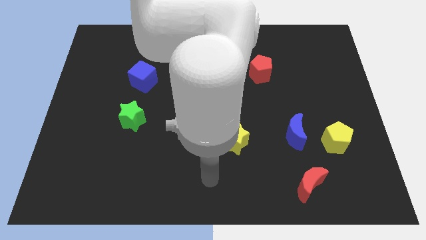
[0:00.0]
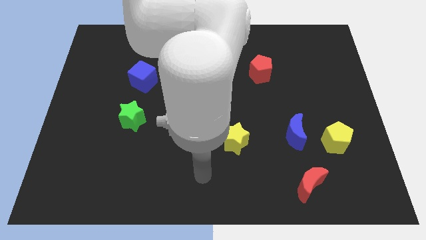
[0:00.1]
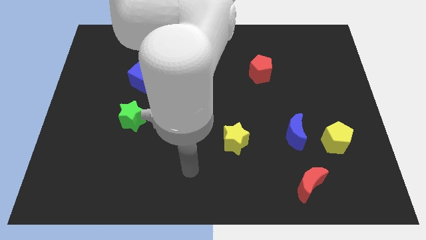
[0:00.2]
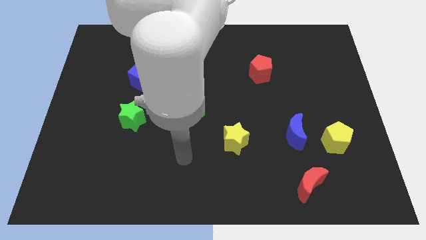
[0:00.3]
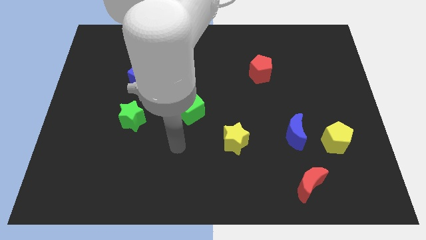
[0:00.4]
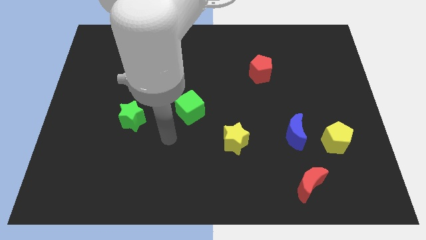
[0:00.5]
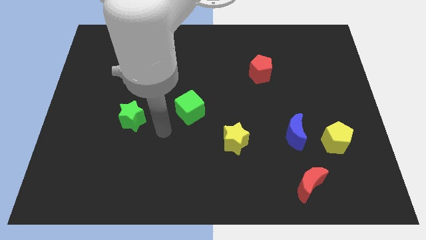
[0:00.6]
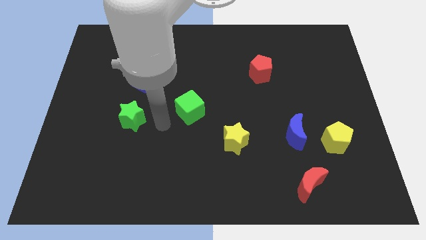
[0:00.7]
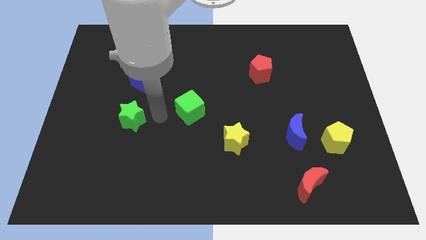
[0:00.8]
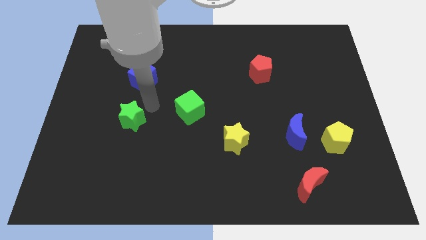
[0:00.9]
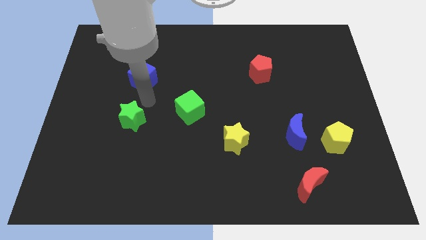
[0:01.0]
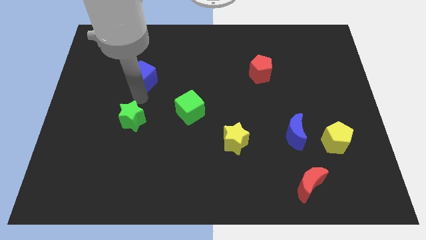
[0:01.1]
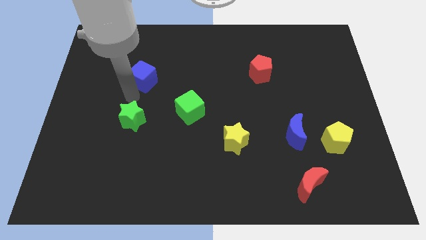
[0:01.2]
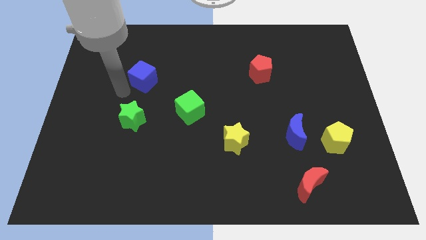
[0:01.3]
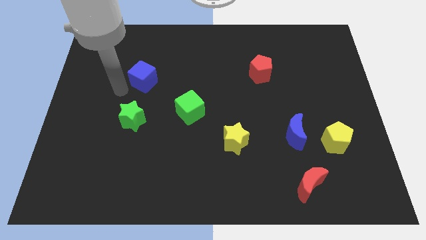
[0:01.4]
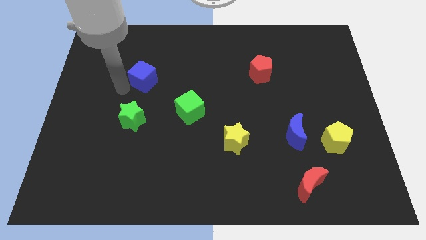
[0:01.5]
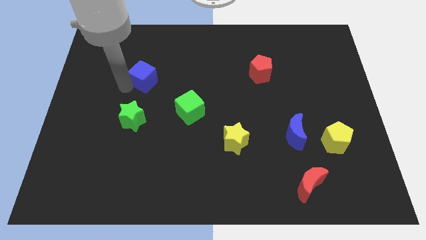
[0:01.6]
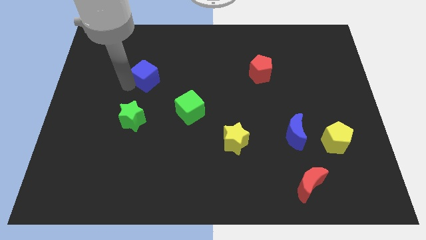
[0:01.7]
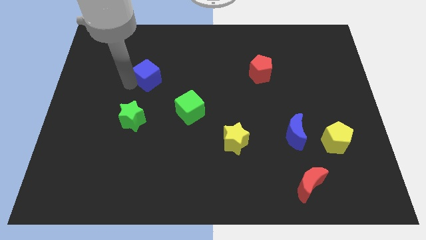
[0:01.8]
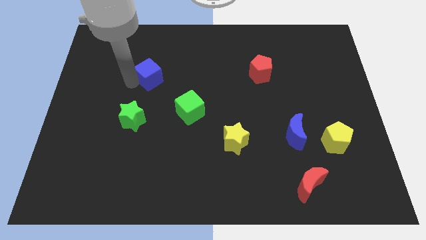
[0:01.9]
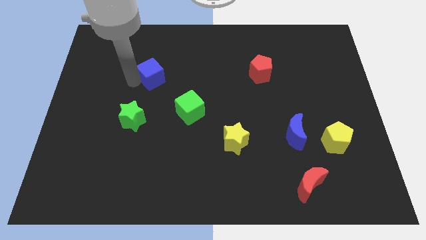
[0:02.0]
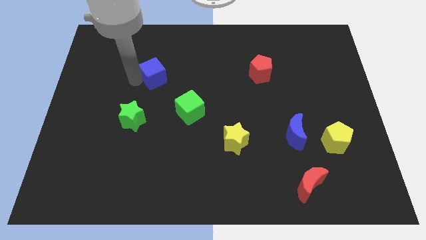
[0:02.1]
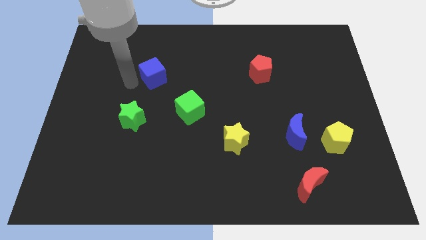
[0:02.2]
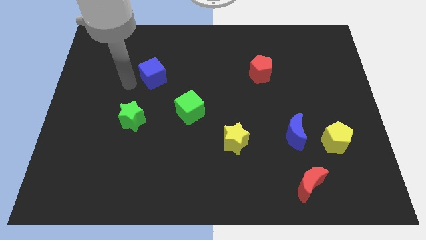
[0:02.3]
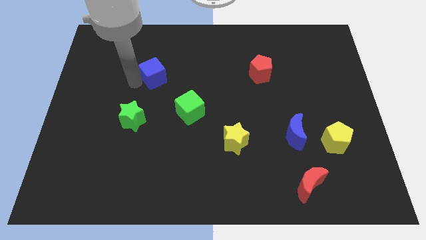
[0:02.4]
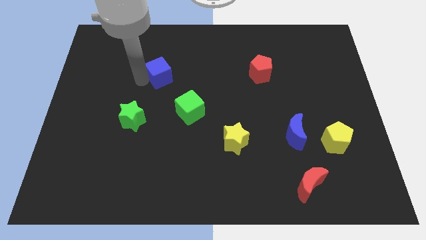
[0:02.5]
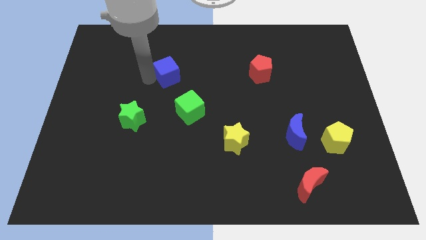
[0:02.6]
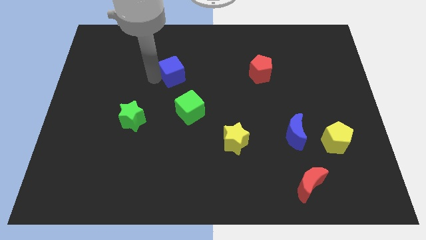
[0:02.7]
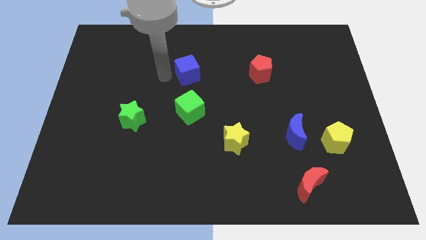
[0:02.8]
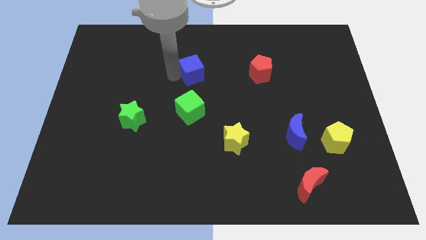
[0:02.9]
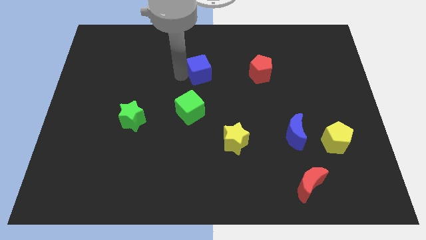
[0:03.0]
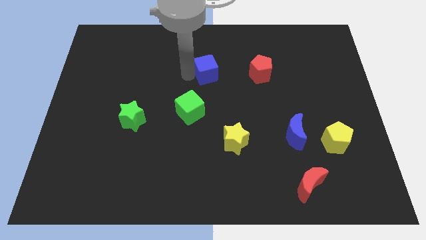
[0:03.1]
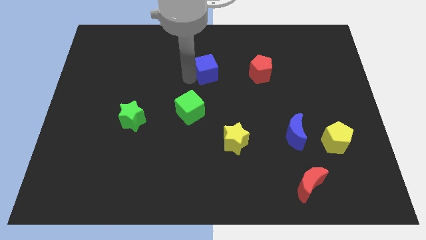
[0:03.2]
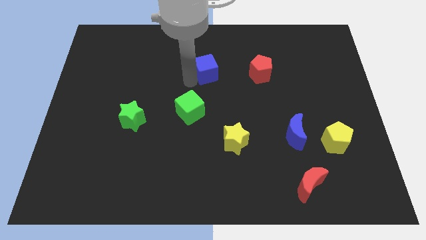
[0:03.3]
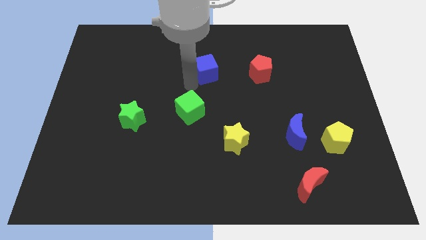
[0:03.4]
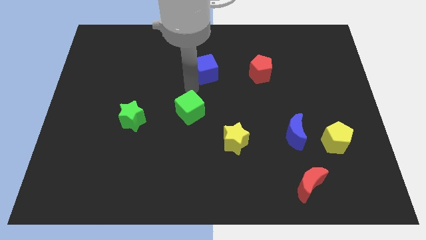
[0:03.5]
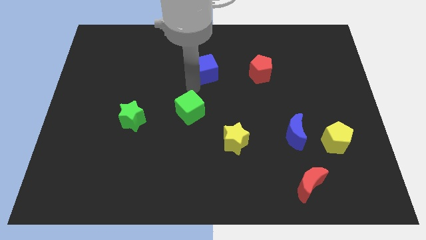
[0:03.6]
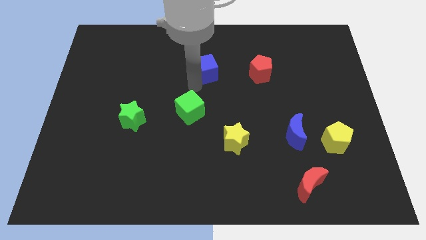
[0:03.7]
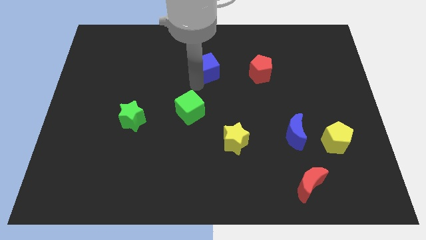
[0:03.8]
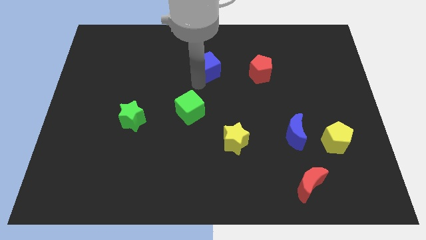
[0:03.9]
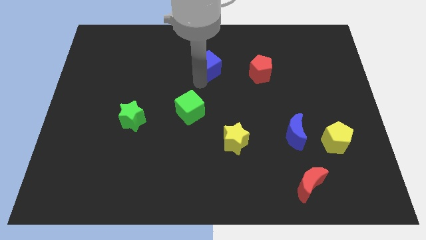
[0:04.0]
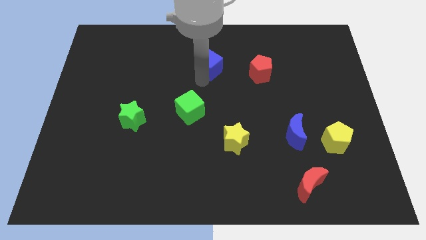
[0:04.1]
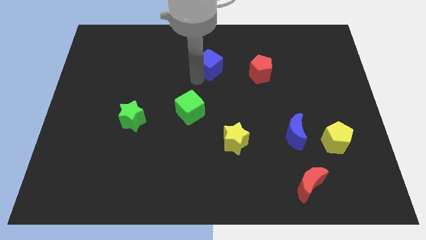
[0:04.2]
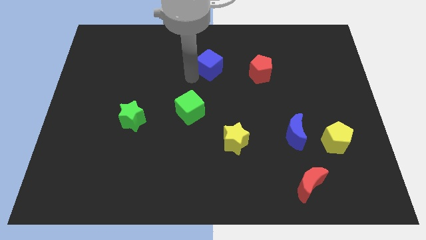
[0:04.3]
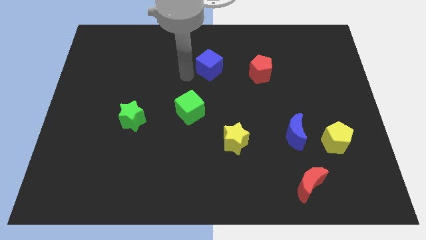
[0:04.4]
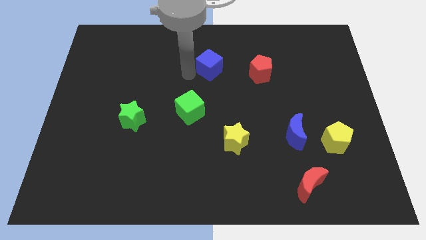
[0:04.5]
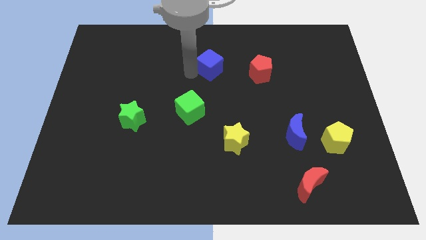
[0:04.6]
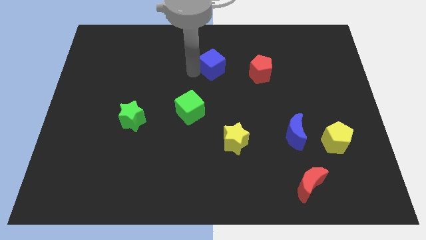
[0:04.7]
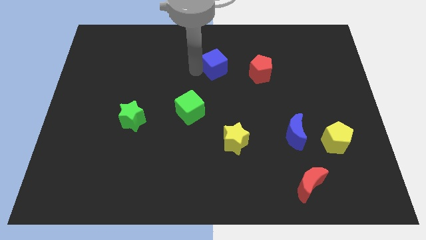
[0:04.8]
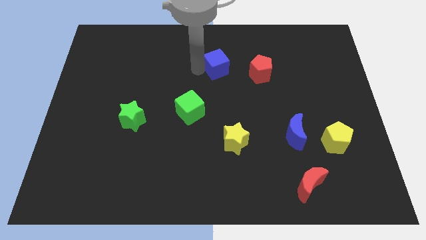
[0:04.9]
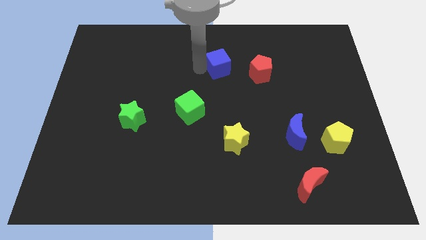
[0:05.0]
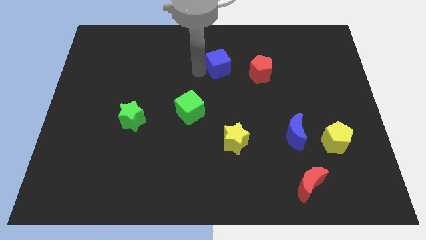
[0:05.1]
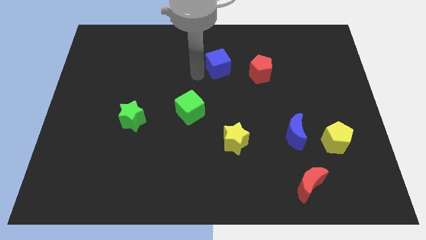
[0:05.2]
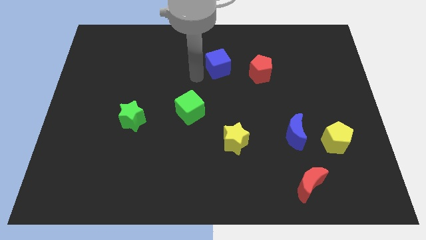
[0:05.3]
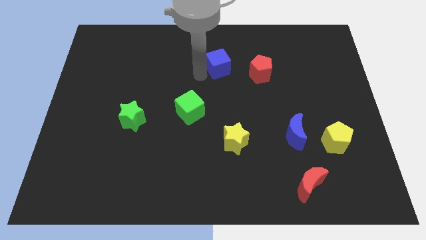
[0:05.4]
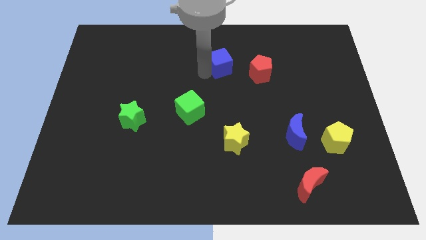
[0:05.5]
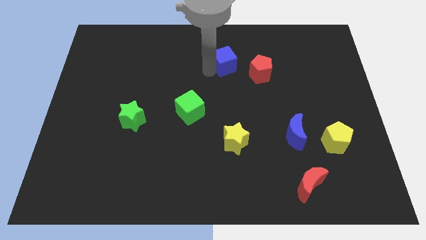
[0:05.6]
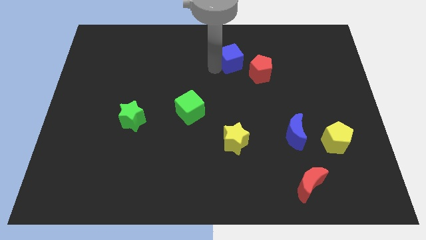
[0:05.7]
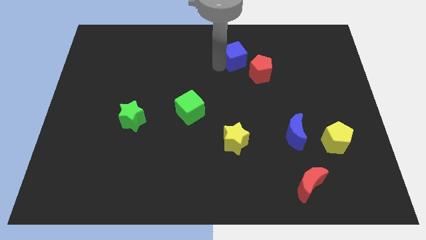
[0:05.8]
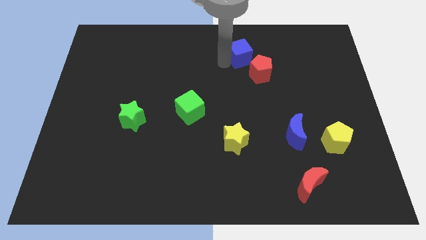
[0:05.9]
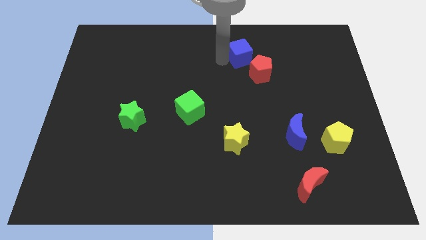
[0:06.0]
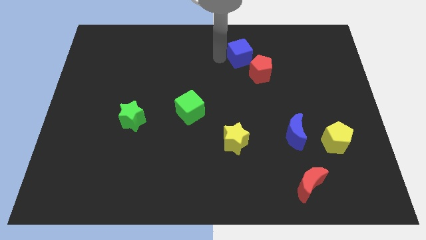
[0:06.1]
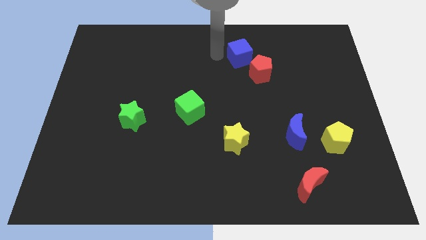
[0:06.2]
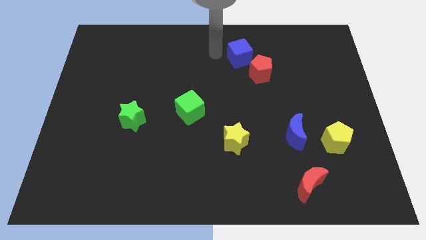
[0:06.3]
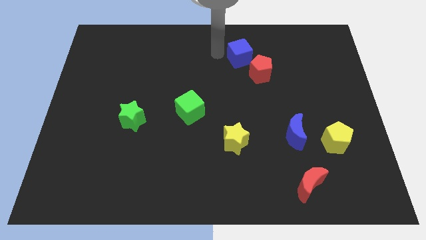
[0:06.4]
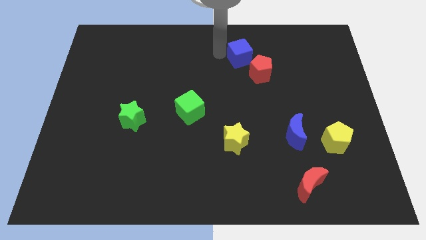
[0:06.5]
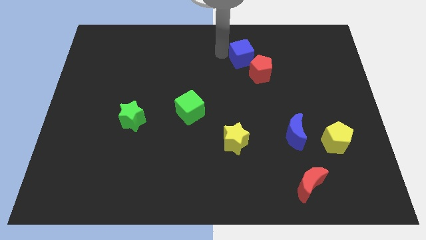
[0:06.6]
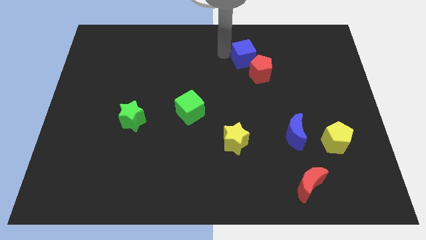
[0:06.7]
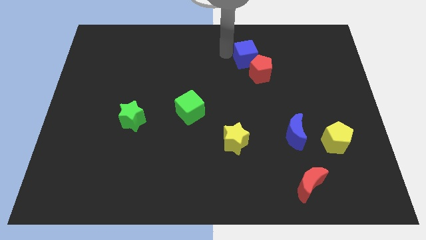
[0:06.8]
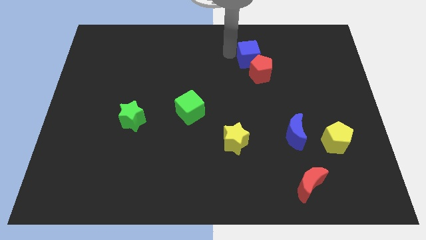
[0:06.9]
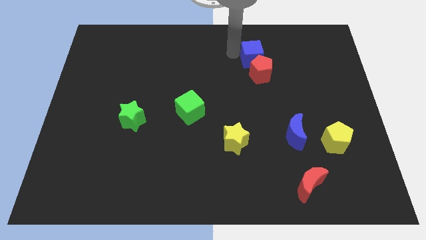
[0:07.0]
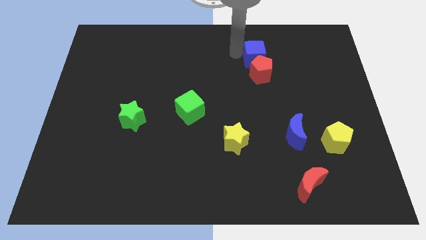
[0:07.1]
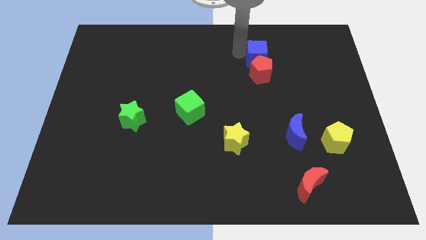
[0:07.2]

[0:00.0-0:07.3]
slide the blue cube to the top right side of the red pentagon

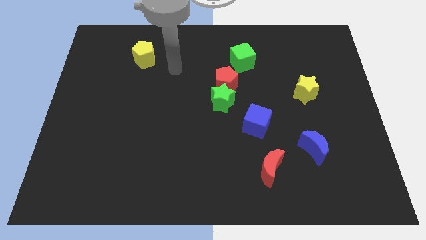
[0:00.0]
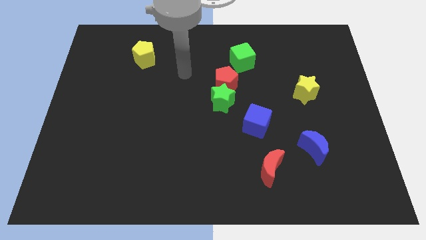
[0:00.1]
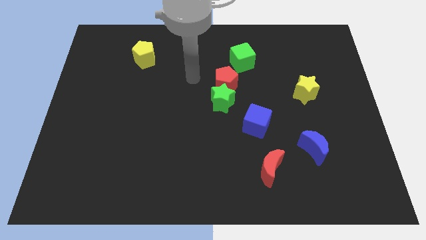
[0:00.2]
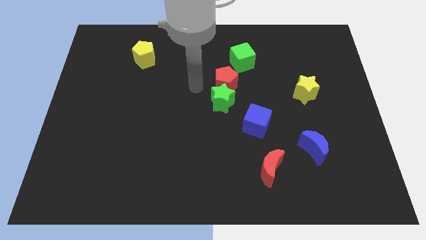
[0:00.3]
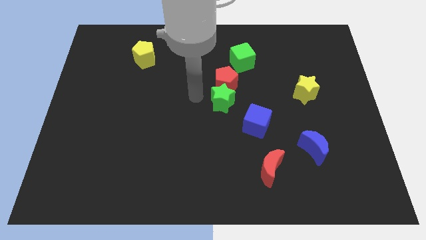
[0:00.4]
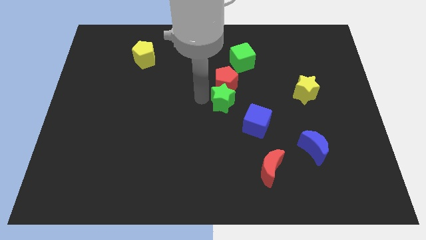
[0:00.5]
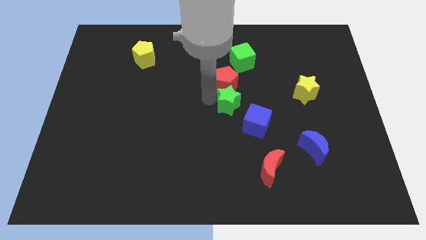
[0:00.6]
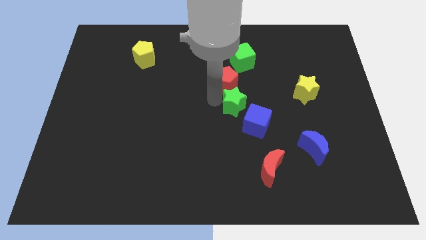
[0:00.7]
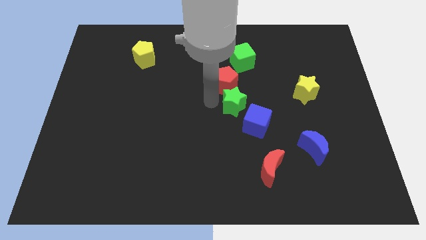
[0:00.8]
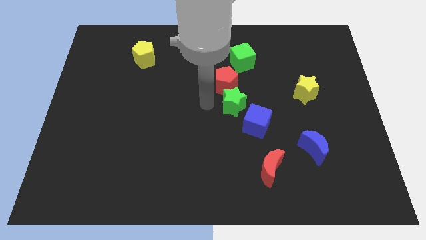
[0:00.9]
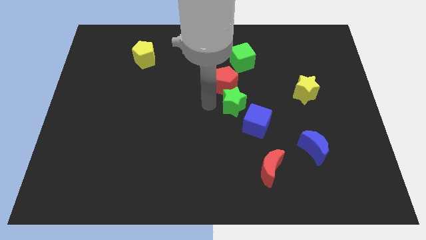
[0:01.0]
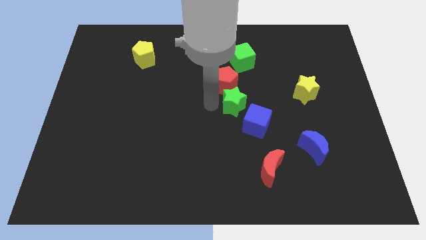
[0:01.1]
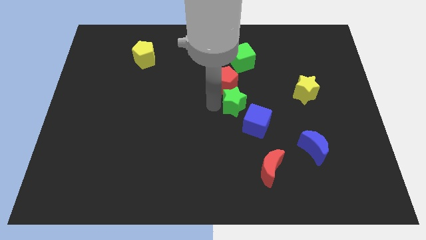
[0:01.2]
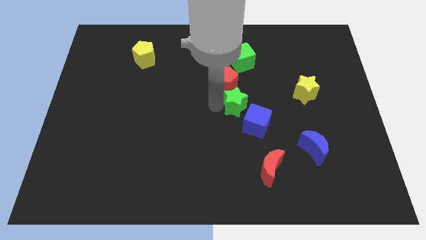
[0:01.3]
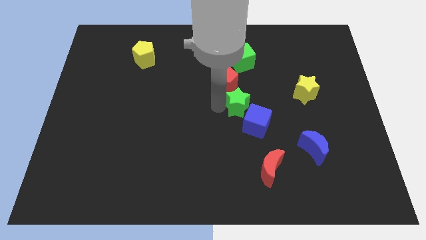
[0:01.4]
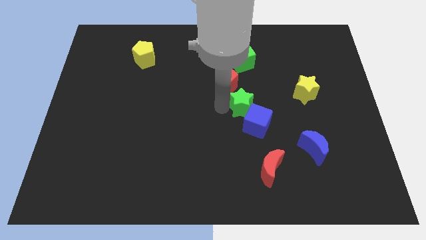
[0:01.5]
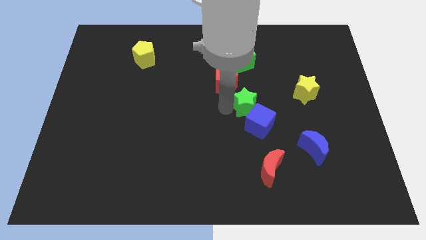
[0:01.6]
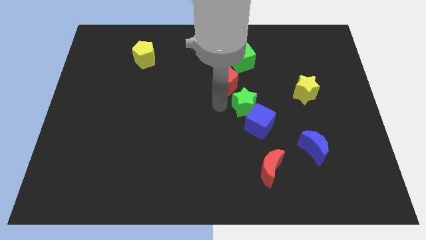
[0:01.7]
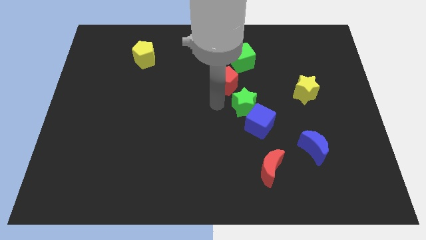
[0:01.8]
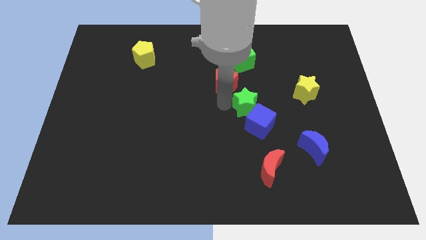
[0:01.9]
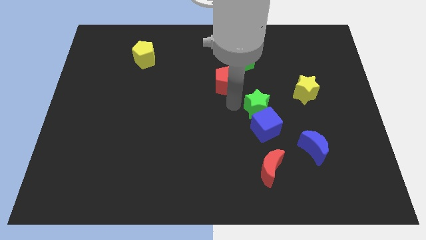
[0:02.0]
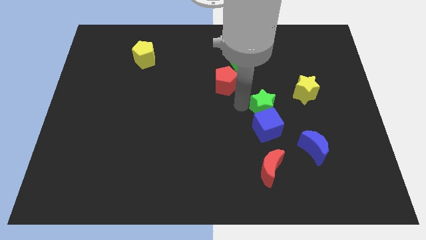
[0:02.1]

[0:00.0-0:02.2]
push the green star diagonally up and to the right of the blue cube
